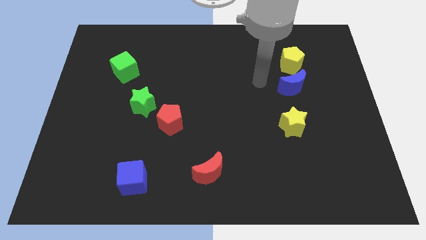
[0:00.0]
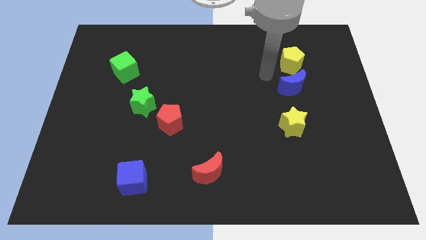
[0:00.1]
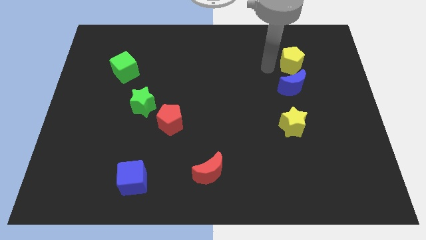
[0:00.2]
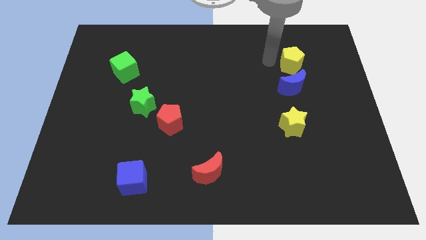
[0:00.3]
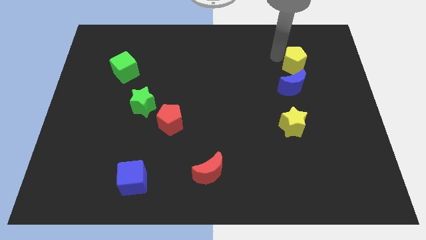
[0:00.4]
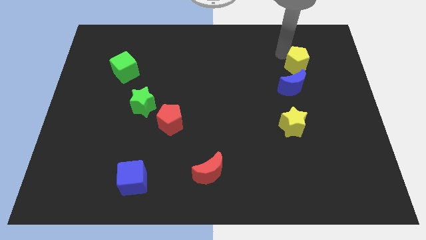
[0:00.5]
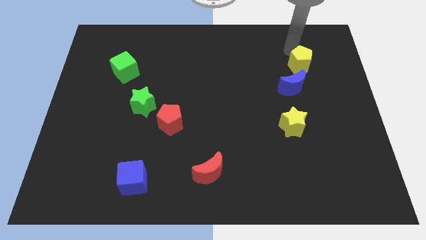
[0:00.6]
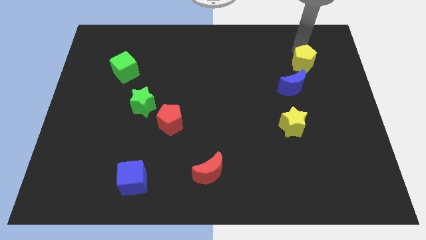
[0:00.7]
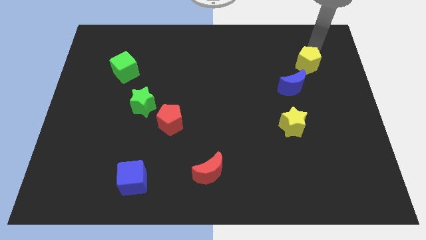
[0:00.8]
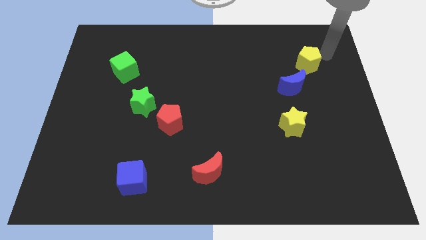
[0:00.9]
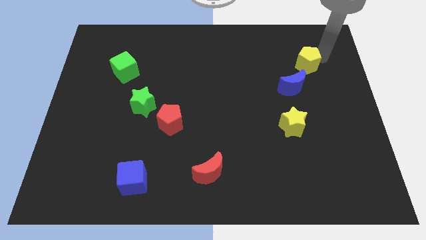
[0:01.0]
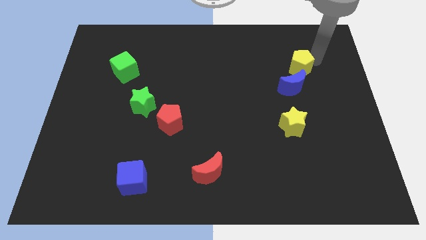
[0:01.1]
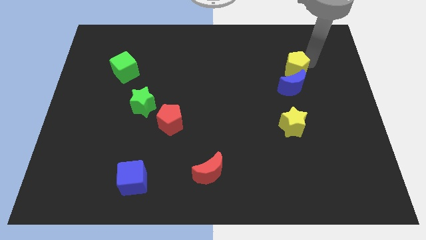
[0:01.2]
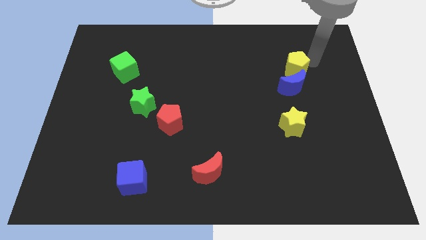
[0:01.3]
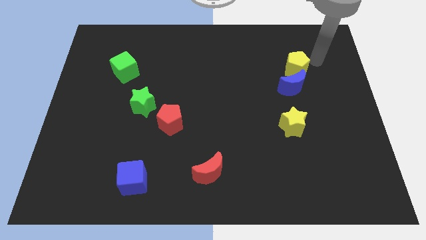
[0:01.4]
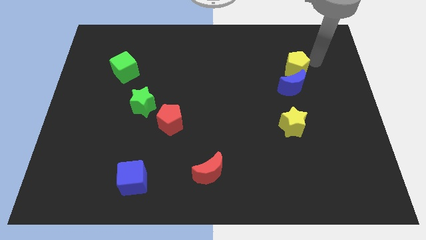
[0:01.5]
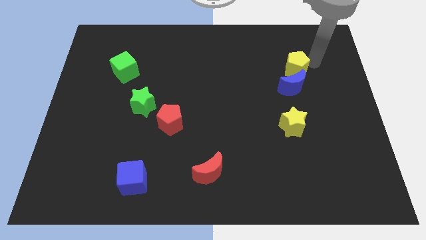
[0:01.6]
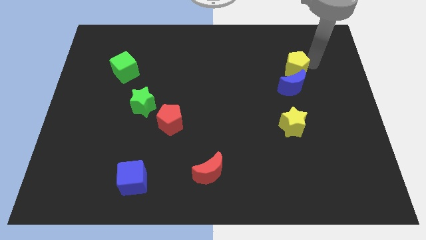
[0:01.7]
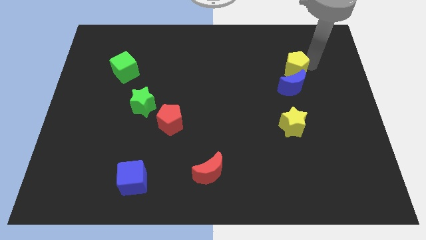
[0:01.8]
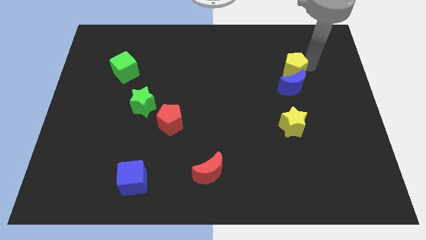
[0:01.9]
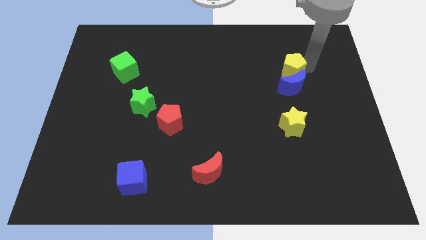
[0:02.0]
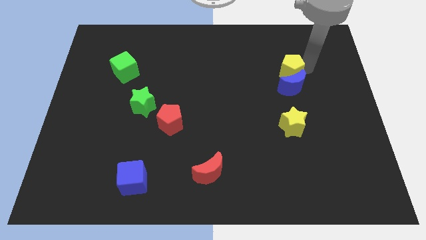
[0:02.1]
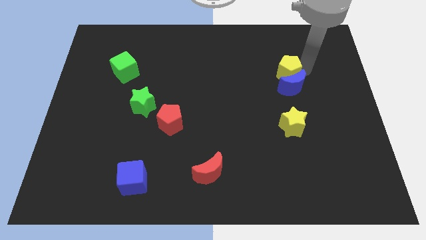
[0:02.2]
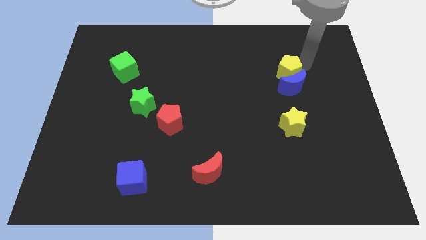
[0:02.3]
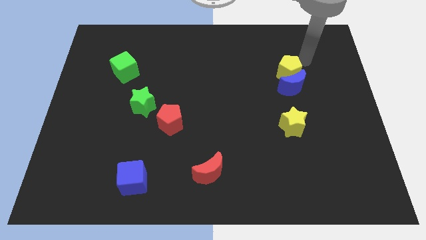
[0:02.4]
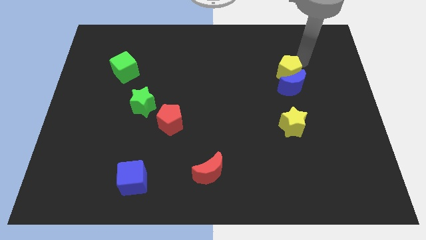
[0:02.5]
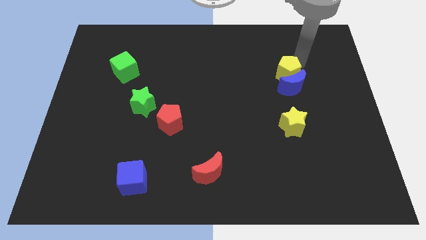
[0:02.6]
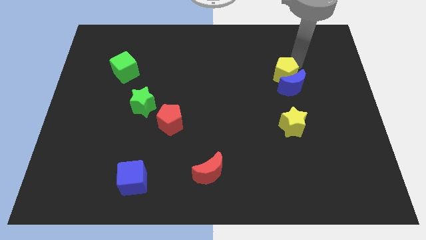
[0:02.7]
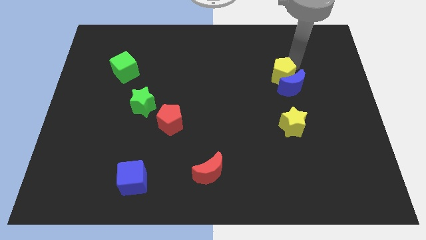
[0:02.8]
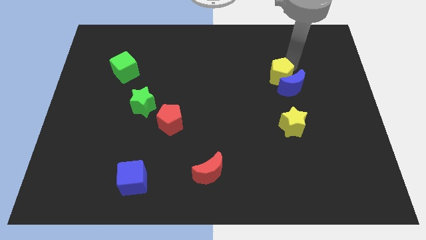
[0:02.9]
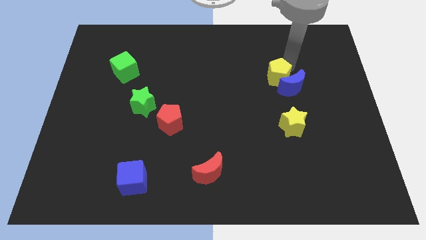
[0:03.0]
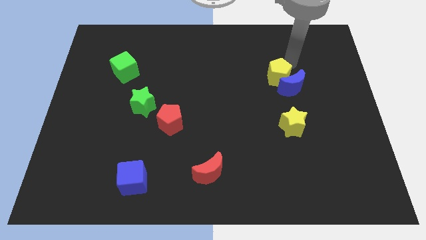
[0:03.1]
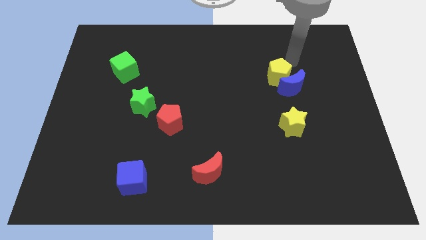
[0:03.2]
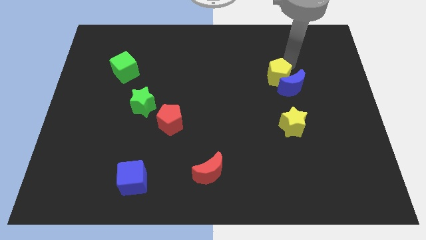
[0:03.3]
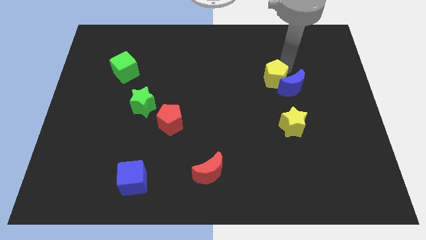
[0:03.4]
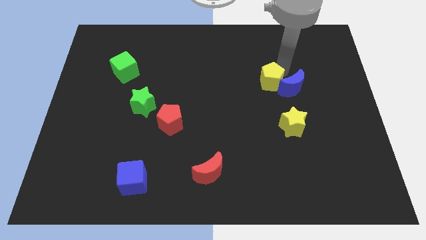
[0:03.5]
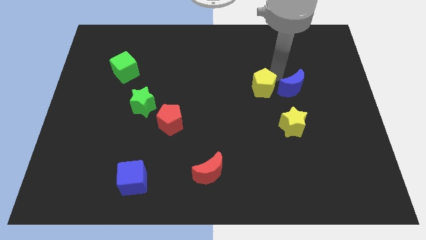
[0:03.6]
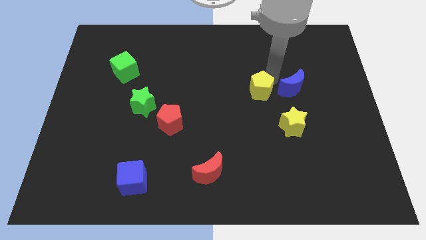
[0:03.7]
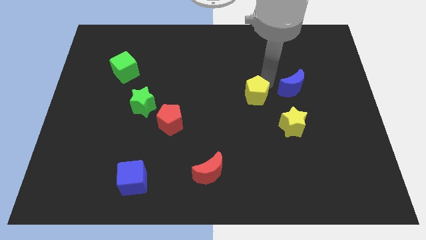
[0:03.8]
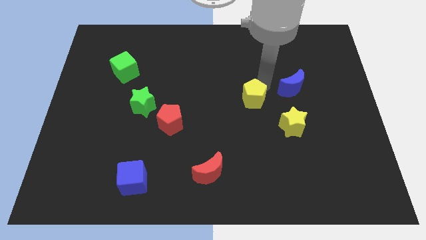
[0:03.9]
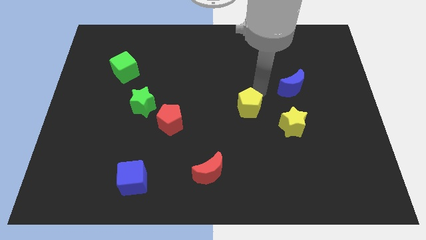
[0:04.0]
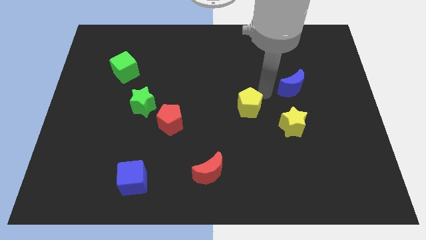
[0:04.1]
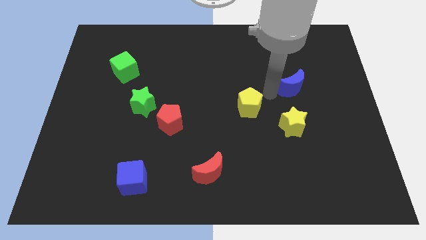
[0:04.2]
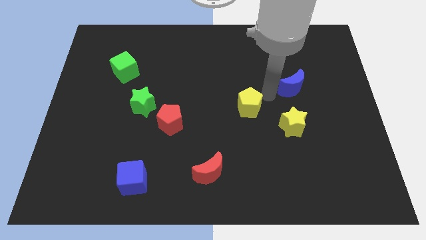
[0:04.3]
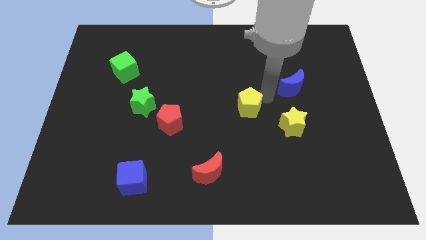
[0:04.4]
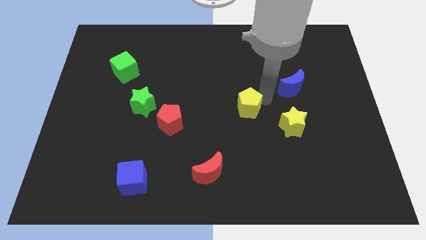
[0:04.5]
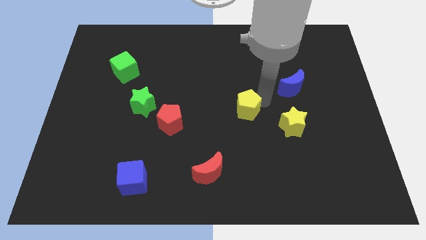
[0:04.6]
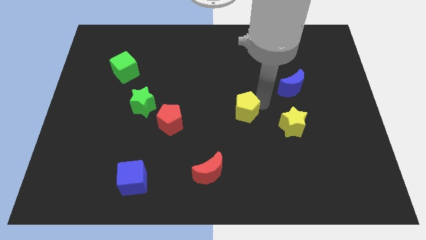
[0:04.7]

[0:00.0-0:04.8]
slide the yellow pentagon downwards and then left

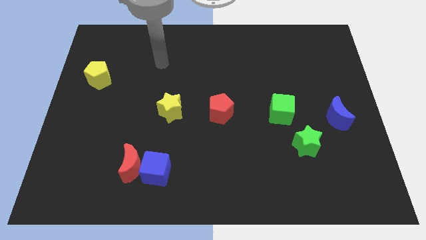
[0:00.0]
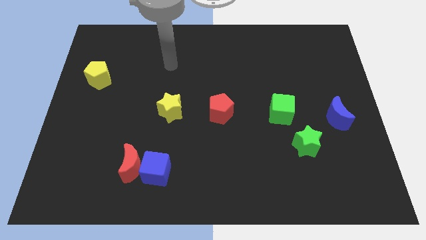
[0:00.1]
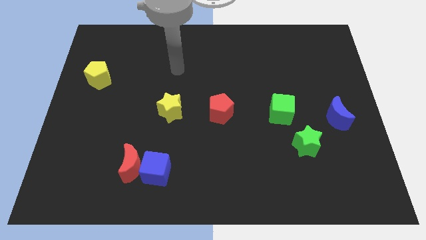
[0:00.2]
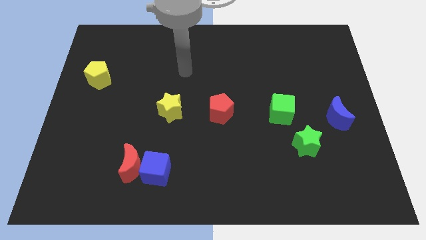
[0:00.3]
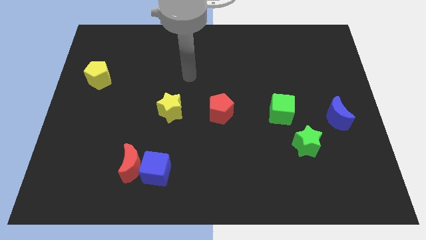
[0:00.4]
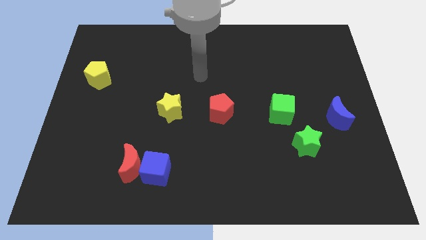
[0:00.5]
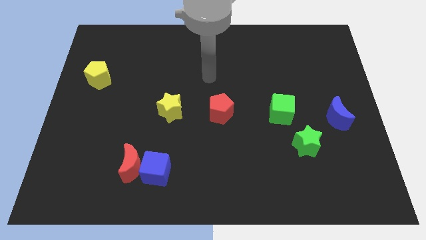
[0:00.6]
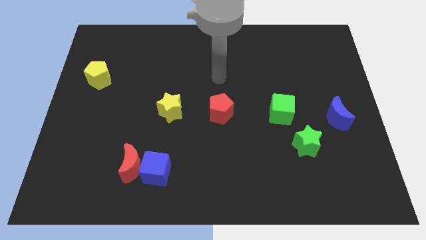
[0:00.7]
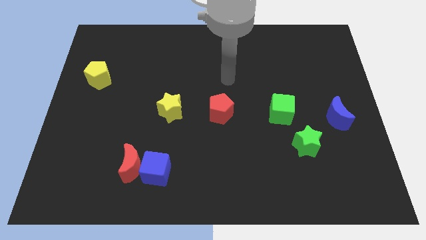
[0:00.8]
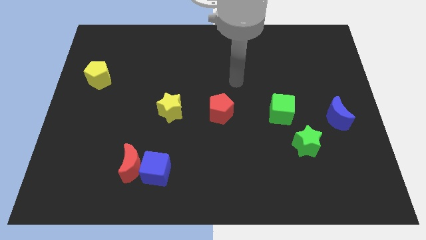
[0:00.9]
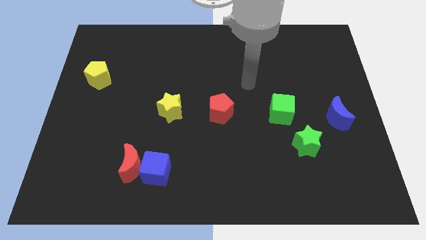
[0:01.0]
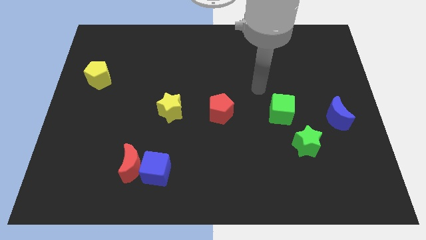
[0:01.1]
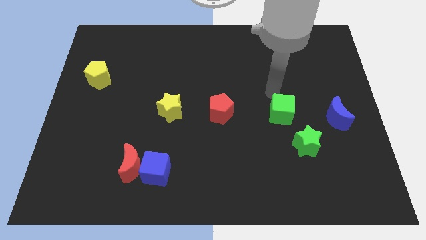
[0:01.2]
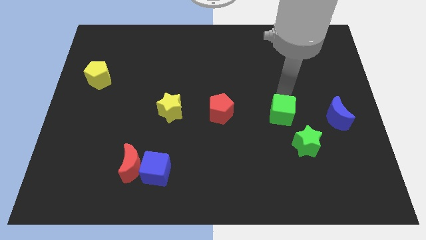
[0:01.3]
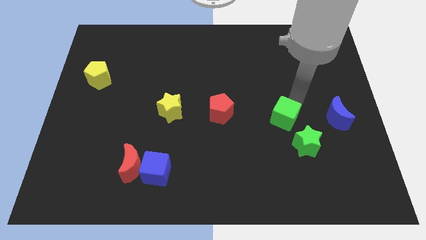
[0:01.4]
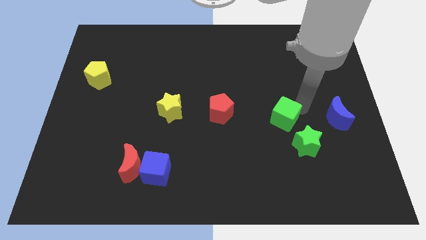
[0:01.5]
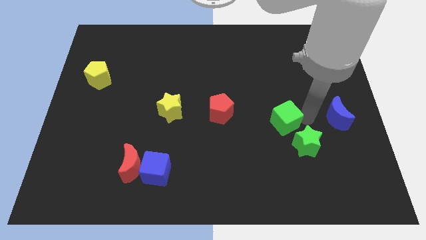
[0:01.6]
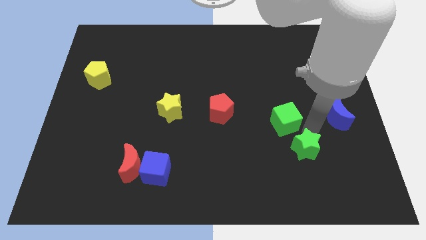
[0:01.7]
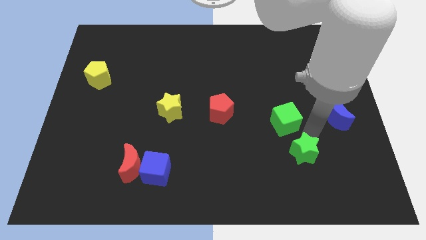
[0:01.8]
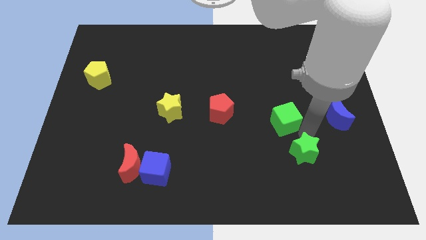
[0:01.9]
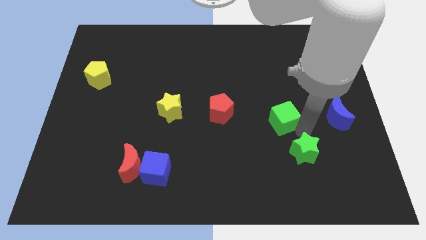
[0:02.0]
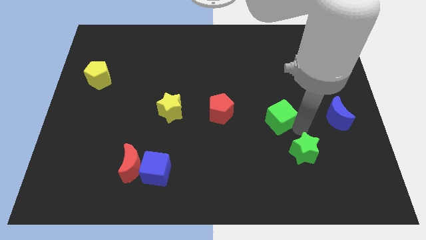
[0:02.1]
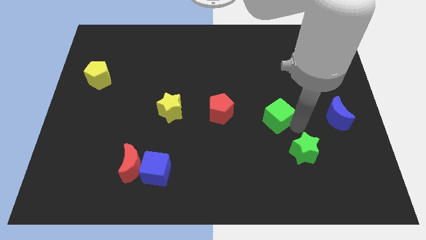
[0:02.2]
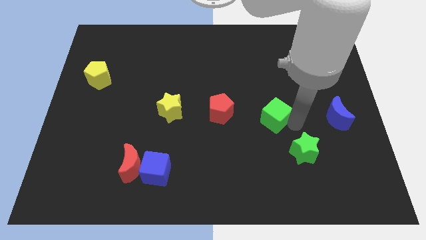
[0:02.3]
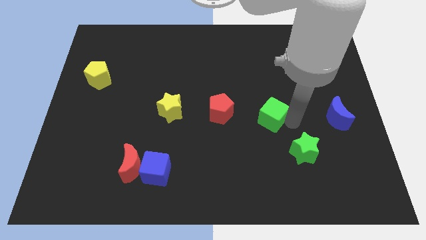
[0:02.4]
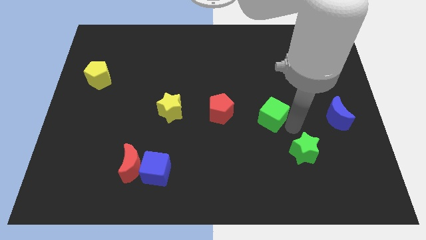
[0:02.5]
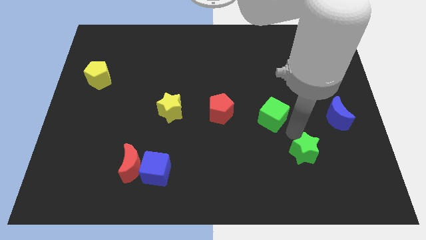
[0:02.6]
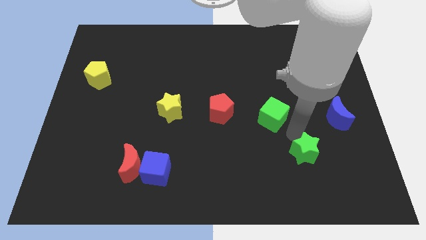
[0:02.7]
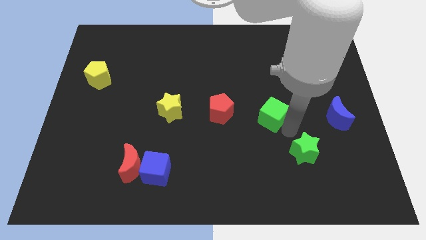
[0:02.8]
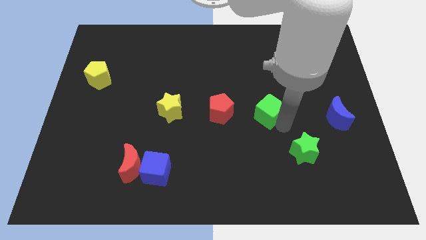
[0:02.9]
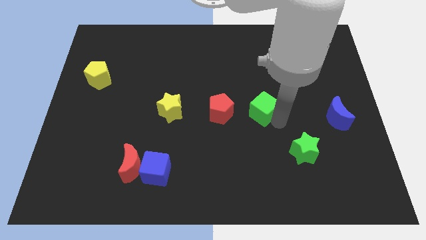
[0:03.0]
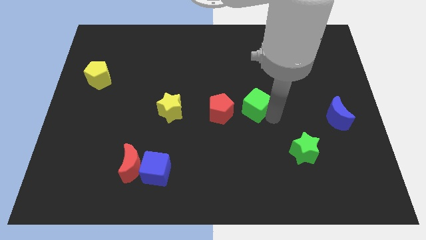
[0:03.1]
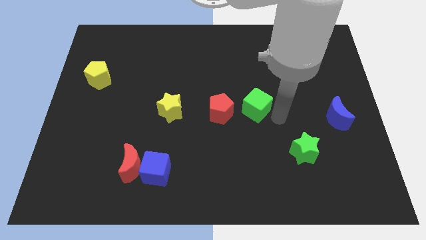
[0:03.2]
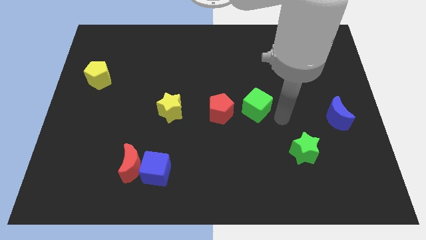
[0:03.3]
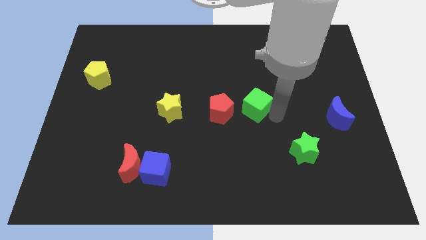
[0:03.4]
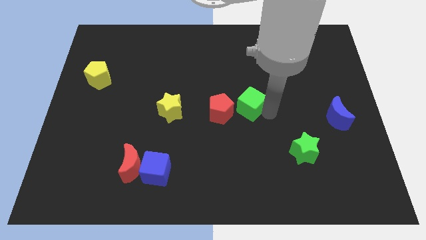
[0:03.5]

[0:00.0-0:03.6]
slightly slide the green cube to the left
